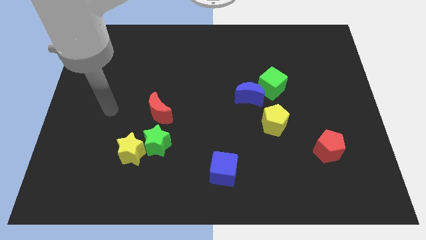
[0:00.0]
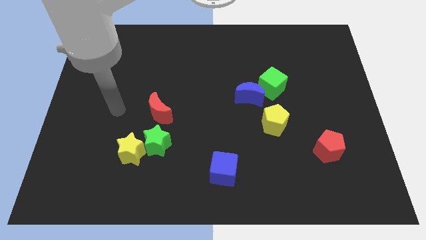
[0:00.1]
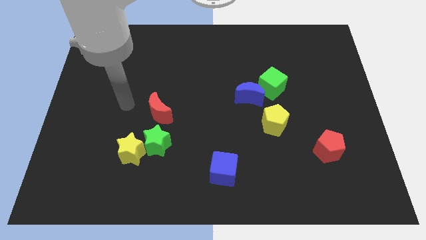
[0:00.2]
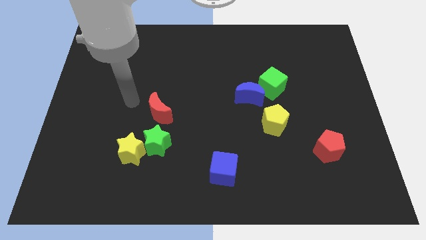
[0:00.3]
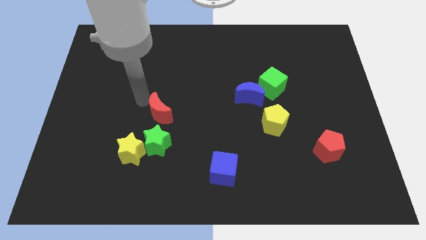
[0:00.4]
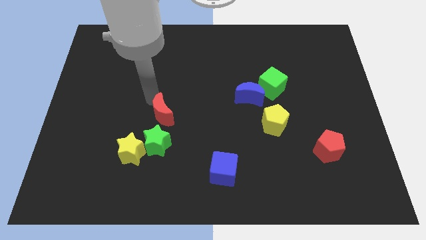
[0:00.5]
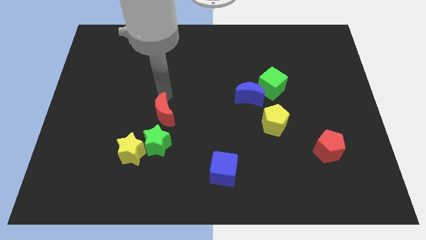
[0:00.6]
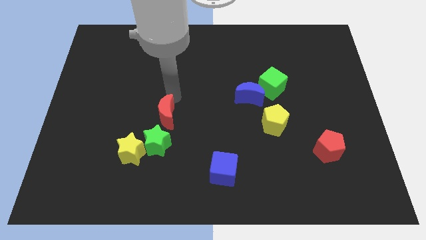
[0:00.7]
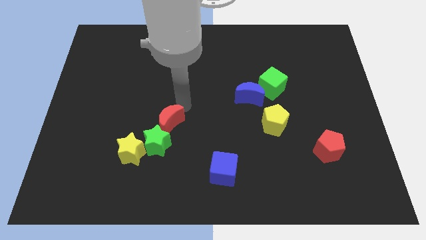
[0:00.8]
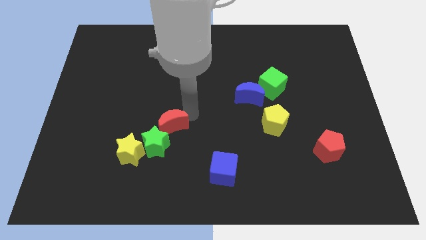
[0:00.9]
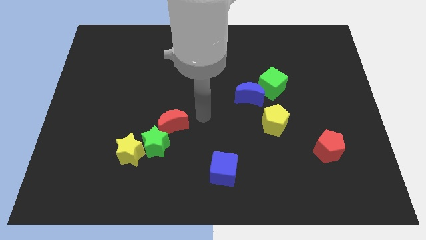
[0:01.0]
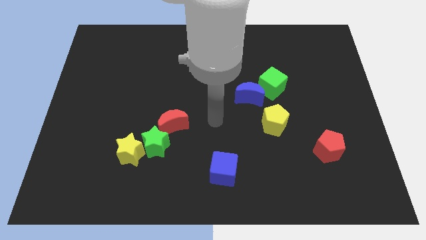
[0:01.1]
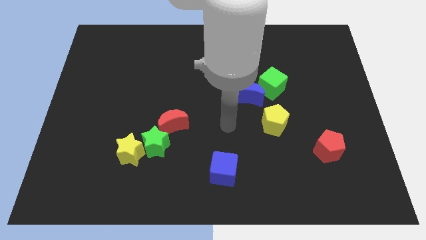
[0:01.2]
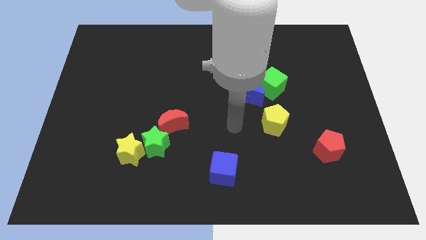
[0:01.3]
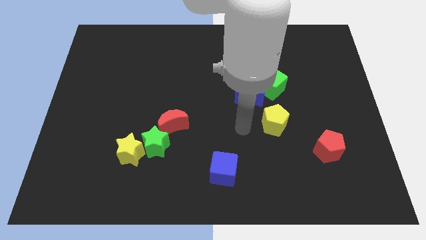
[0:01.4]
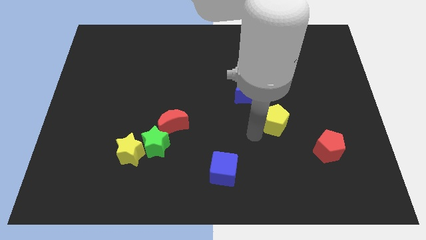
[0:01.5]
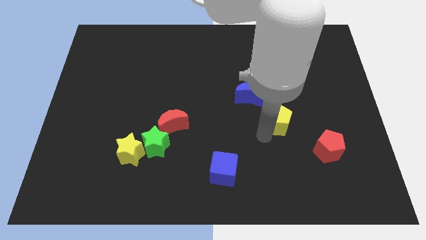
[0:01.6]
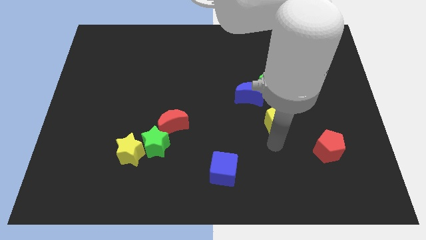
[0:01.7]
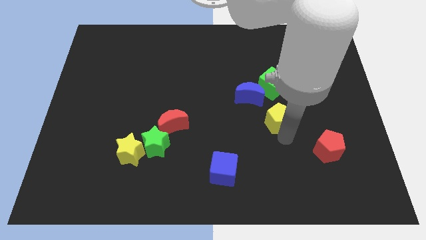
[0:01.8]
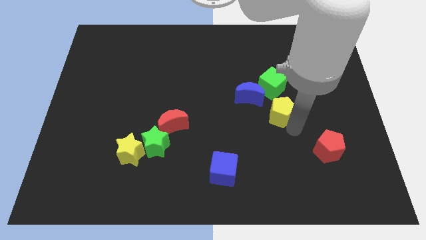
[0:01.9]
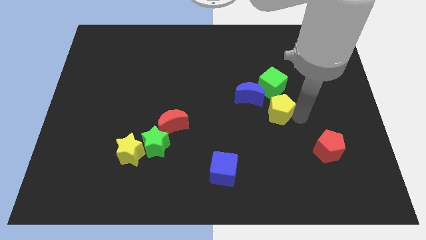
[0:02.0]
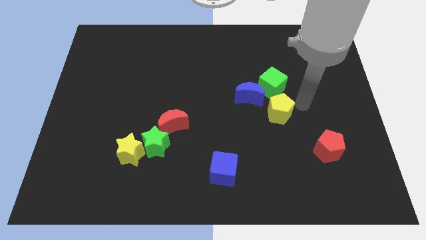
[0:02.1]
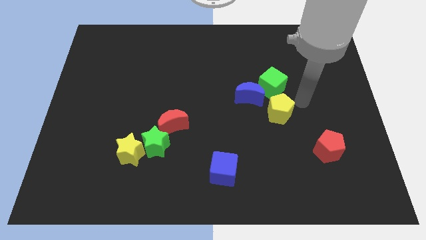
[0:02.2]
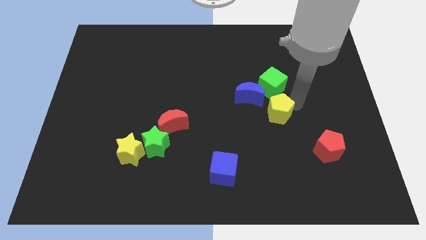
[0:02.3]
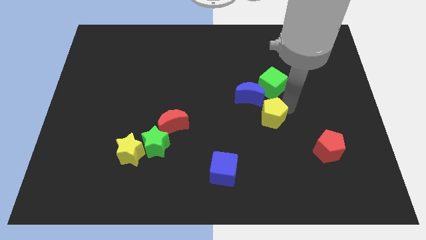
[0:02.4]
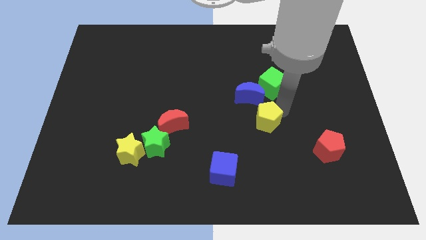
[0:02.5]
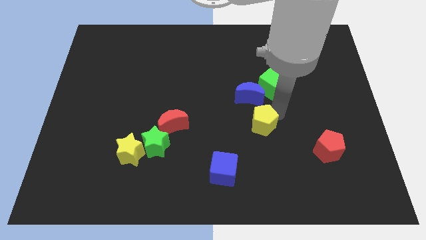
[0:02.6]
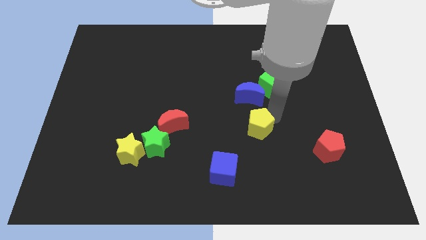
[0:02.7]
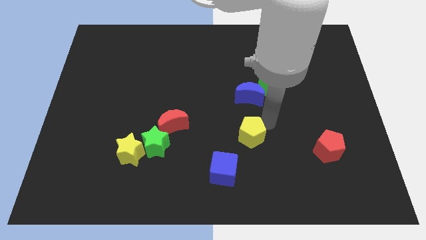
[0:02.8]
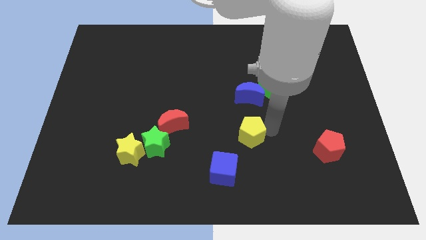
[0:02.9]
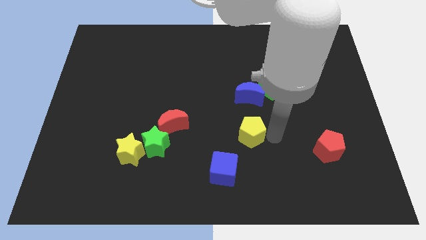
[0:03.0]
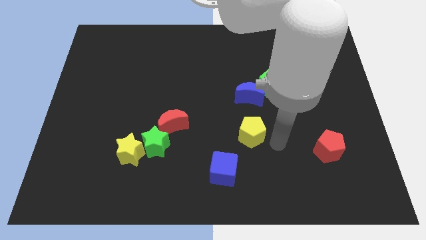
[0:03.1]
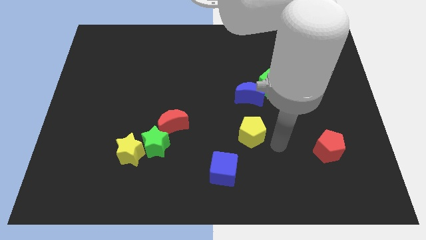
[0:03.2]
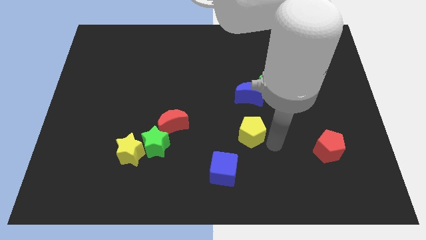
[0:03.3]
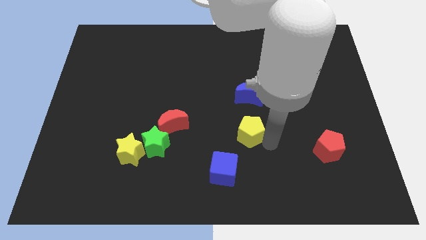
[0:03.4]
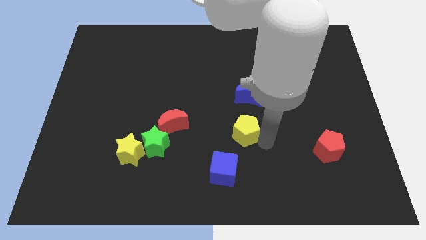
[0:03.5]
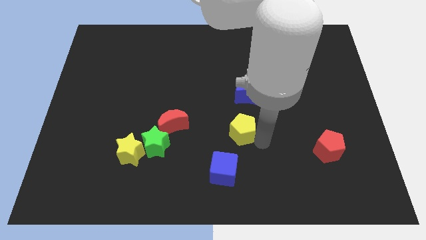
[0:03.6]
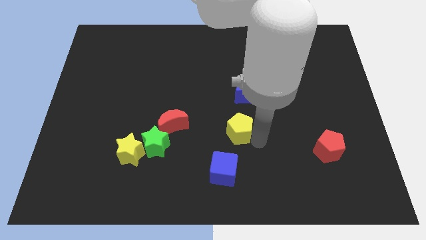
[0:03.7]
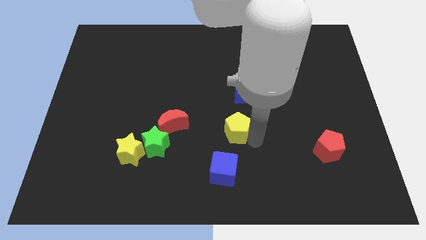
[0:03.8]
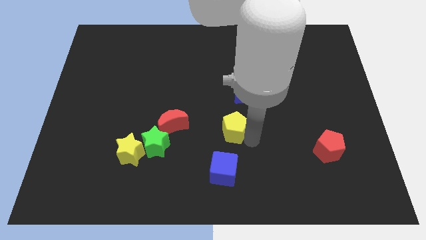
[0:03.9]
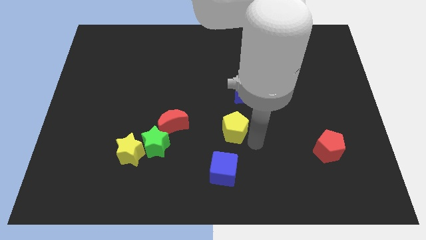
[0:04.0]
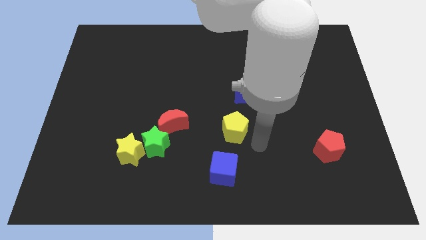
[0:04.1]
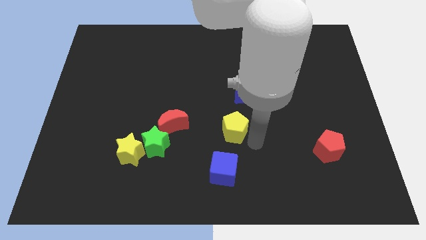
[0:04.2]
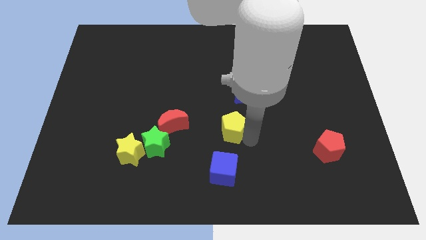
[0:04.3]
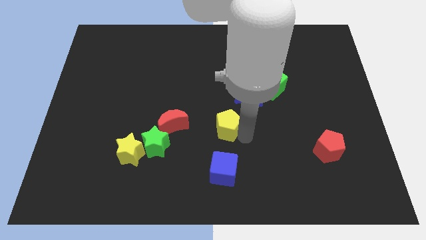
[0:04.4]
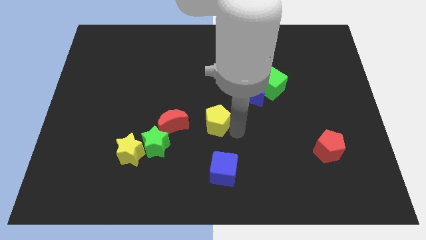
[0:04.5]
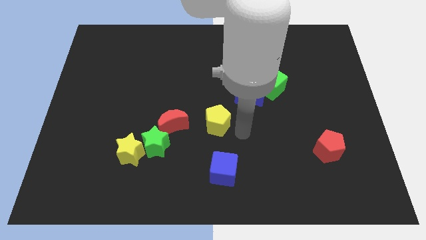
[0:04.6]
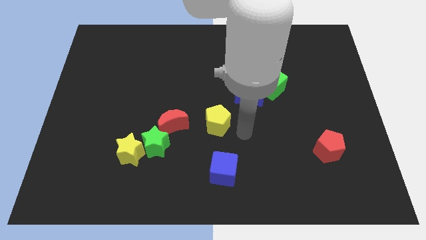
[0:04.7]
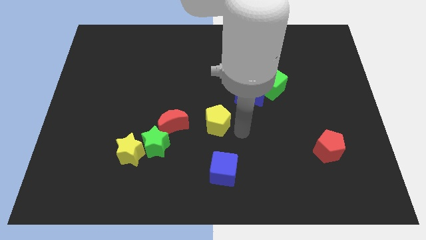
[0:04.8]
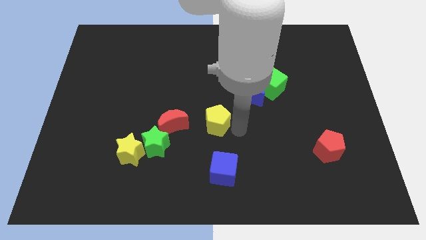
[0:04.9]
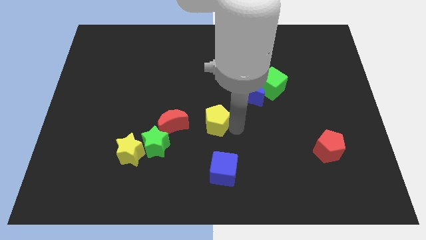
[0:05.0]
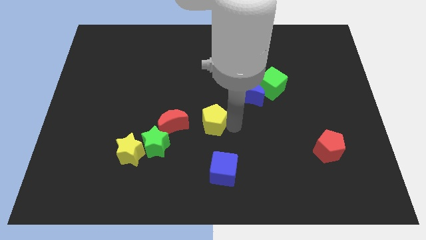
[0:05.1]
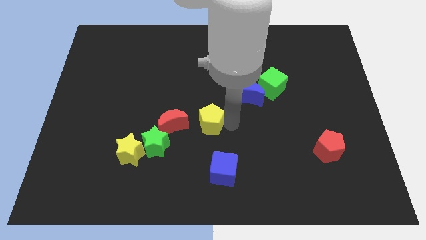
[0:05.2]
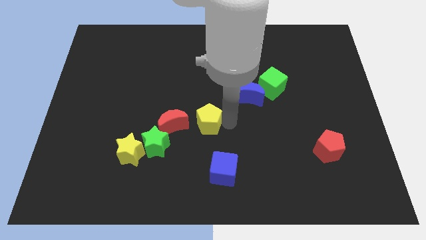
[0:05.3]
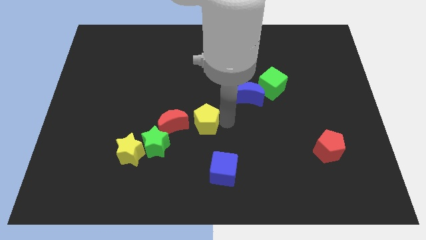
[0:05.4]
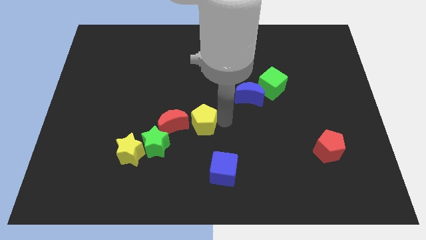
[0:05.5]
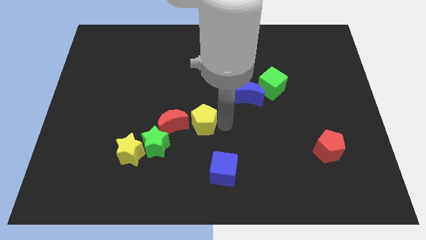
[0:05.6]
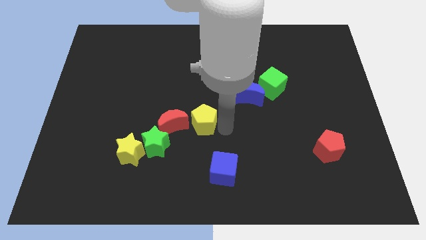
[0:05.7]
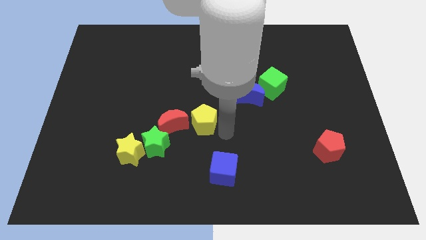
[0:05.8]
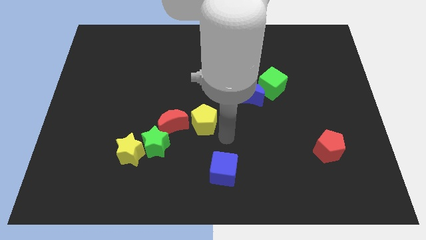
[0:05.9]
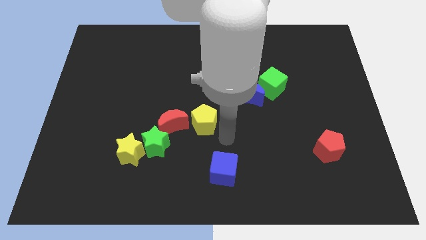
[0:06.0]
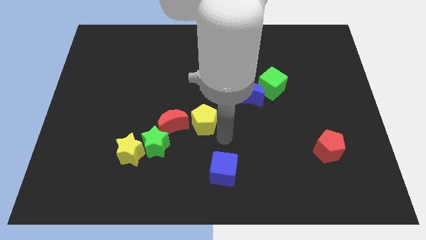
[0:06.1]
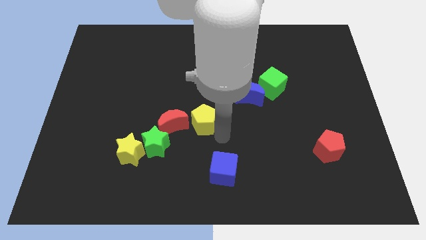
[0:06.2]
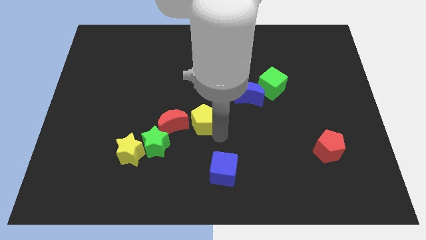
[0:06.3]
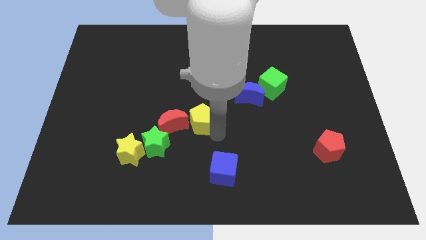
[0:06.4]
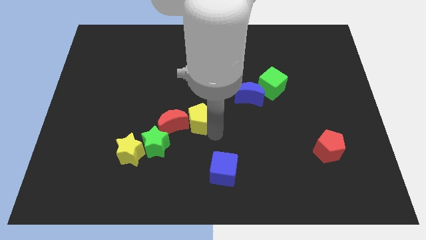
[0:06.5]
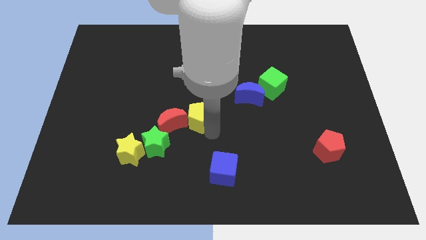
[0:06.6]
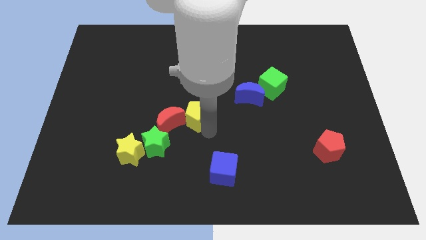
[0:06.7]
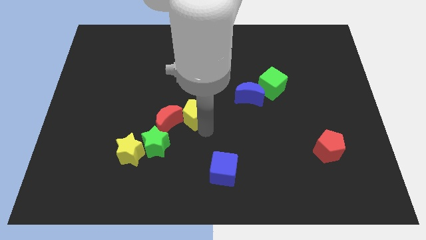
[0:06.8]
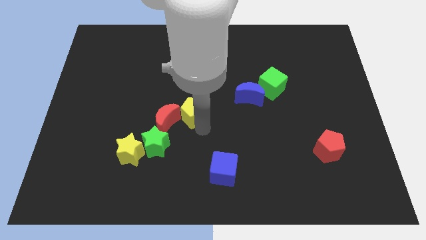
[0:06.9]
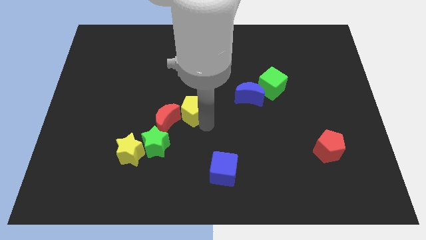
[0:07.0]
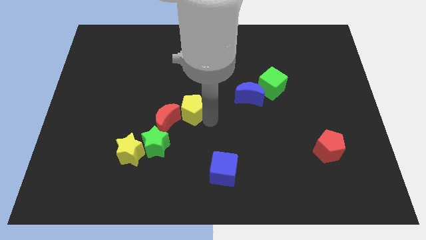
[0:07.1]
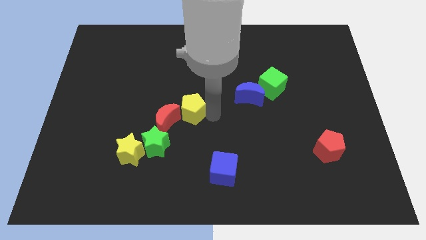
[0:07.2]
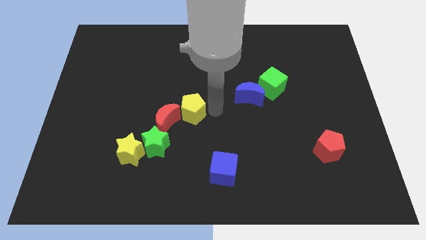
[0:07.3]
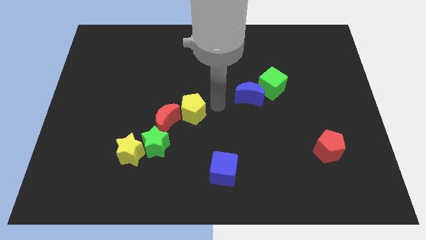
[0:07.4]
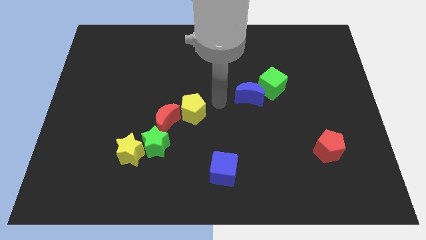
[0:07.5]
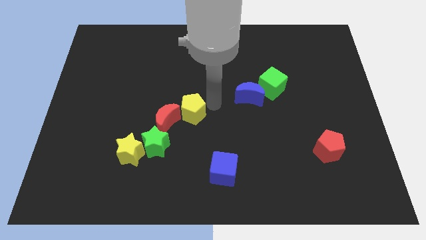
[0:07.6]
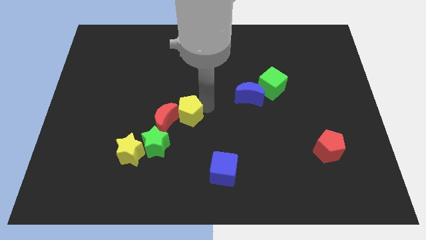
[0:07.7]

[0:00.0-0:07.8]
slide the yellow pentagon towards the red moon

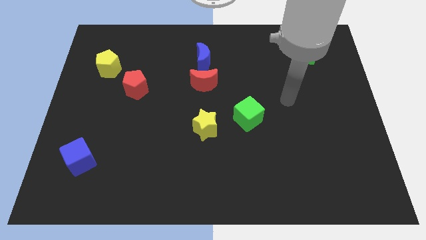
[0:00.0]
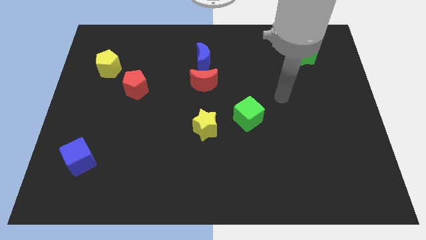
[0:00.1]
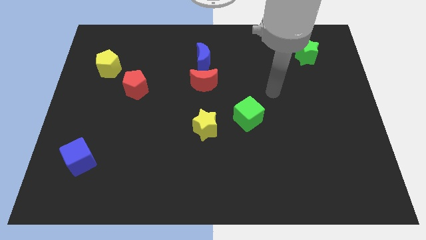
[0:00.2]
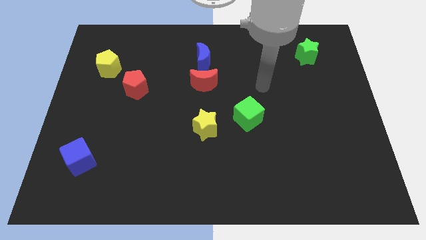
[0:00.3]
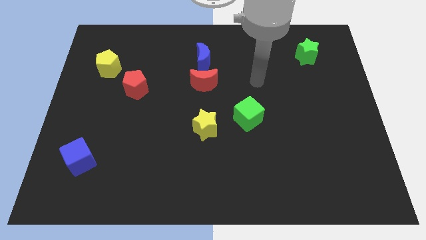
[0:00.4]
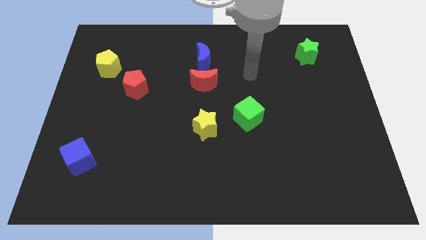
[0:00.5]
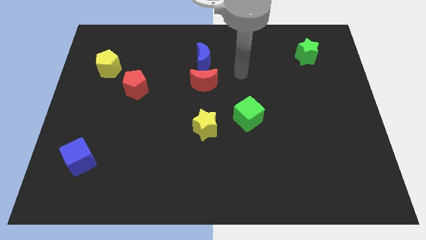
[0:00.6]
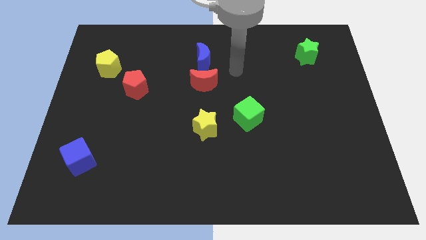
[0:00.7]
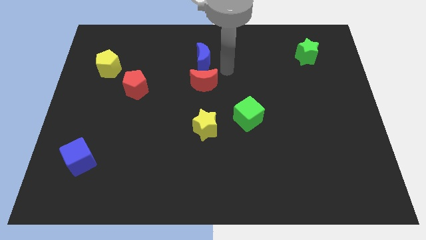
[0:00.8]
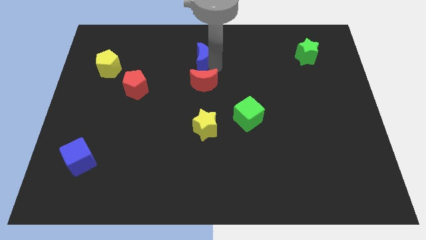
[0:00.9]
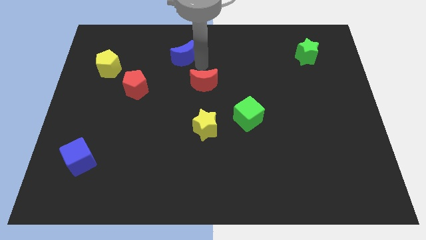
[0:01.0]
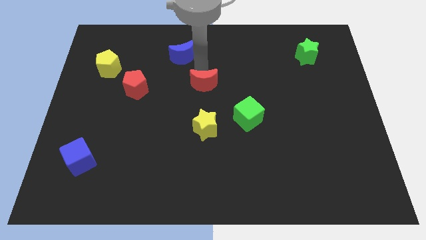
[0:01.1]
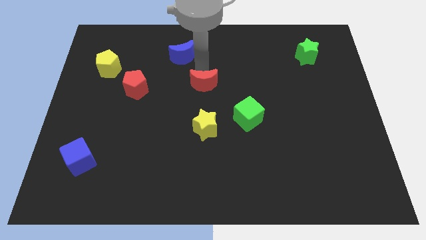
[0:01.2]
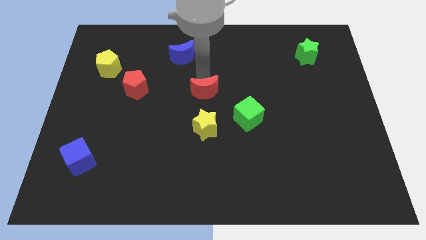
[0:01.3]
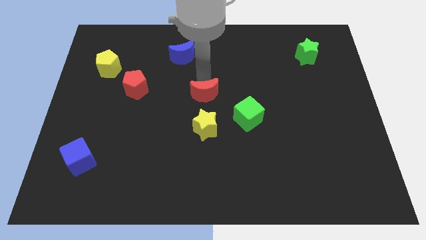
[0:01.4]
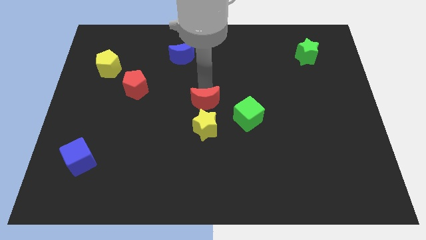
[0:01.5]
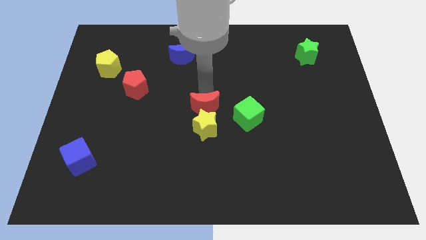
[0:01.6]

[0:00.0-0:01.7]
move the red moon close to the yellow star
